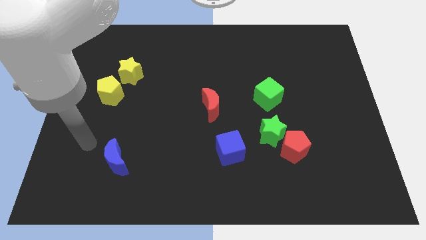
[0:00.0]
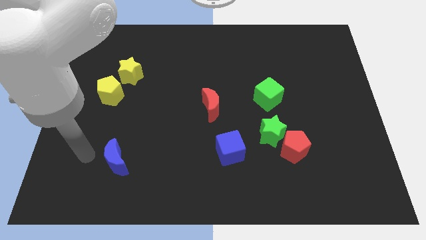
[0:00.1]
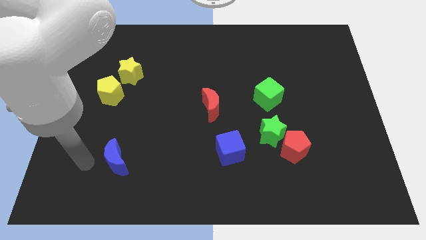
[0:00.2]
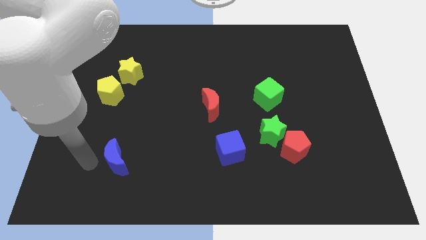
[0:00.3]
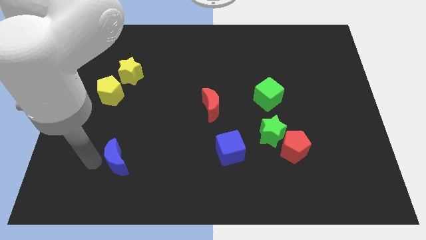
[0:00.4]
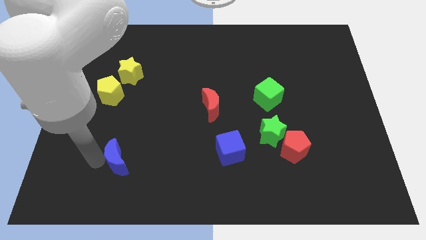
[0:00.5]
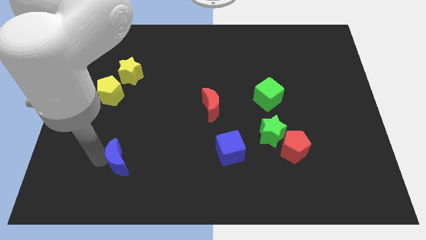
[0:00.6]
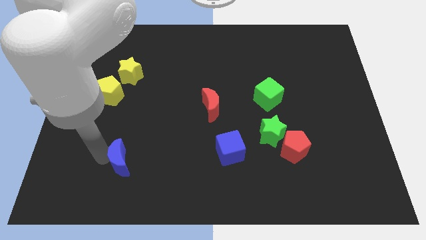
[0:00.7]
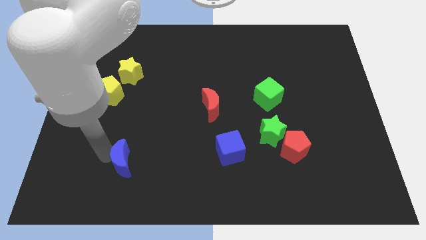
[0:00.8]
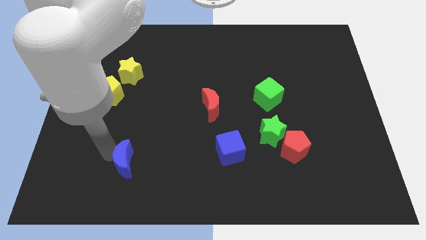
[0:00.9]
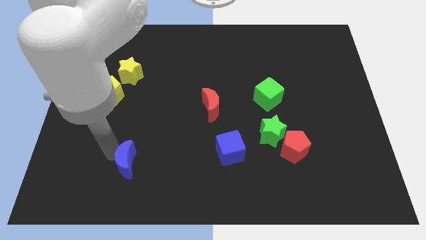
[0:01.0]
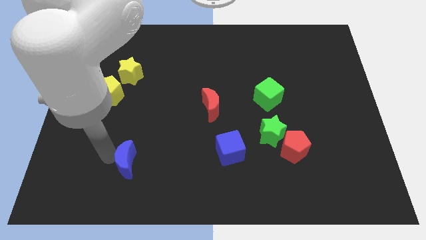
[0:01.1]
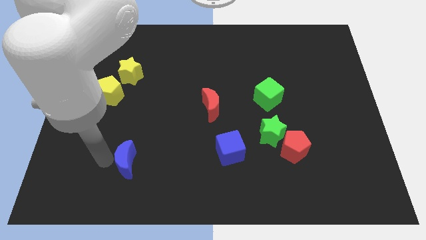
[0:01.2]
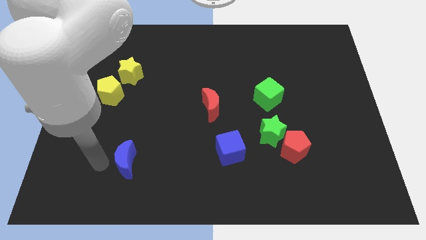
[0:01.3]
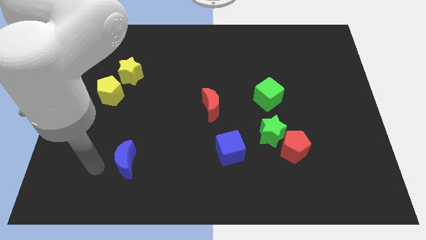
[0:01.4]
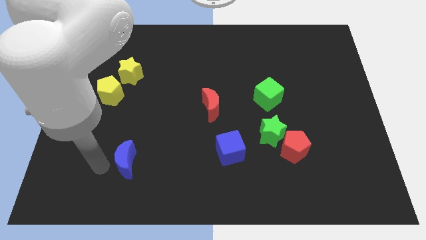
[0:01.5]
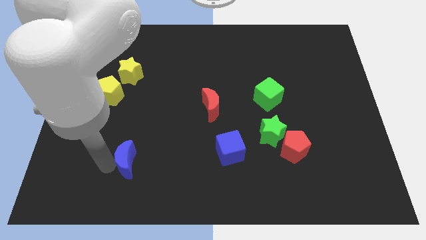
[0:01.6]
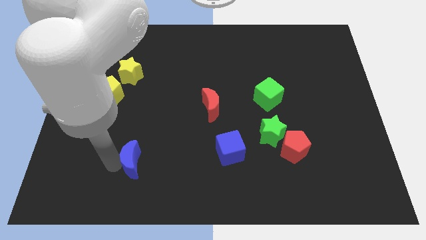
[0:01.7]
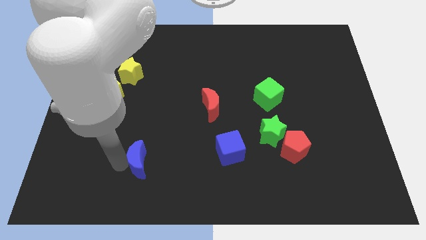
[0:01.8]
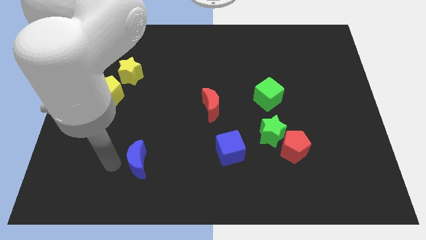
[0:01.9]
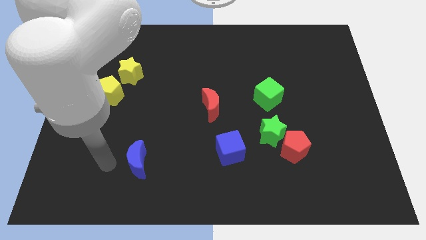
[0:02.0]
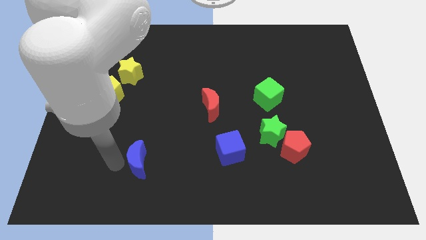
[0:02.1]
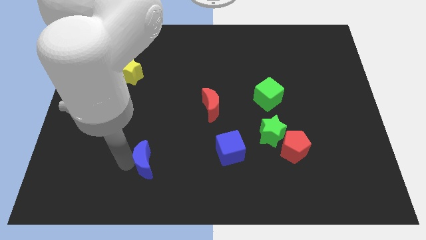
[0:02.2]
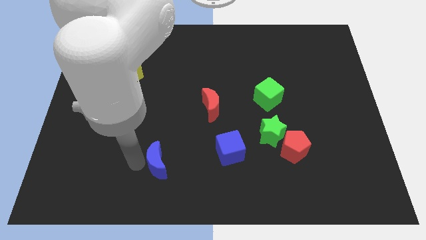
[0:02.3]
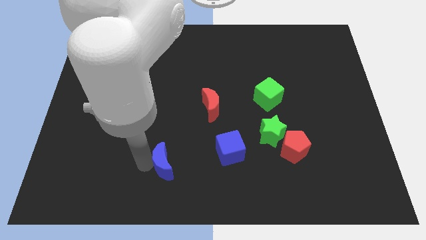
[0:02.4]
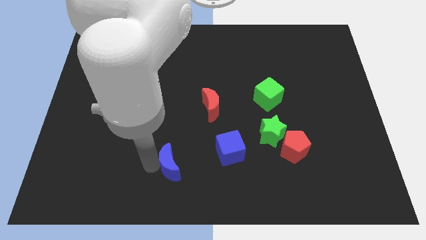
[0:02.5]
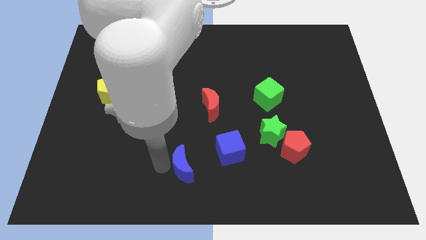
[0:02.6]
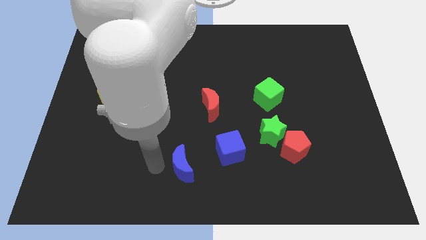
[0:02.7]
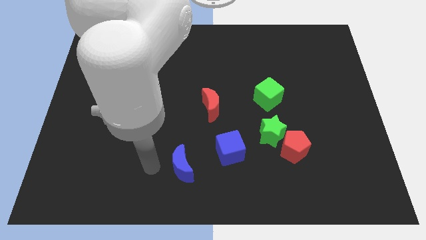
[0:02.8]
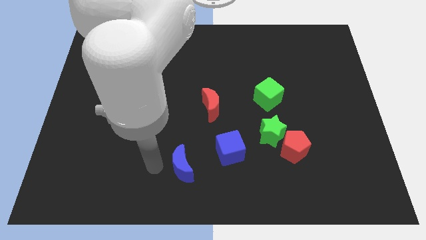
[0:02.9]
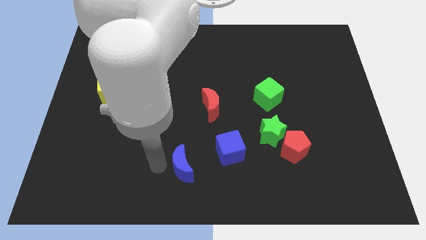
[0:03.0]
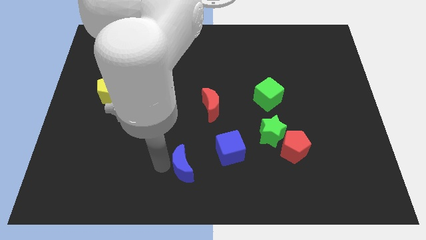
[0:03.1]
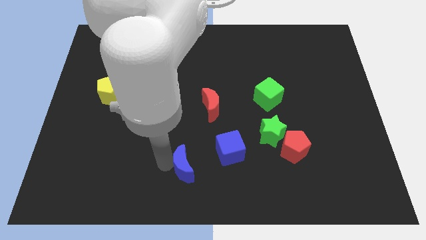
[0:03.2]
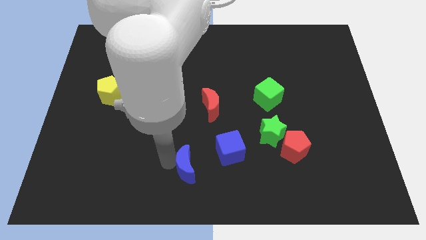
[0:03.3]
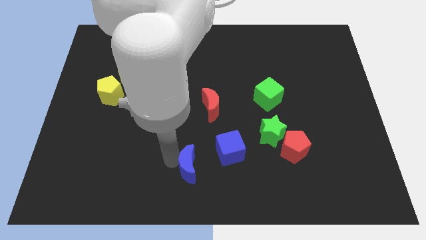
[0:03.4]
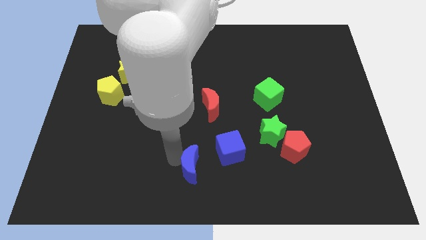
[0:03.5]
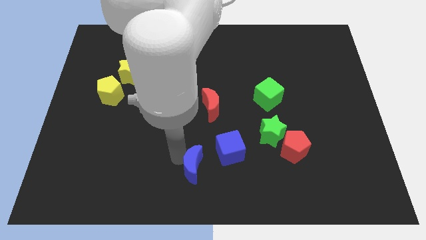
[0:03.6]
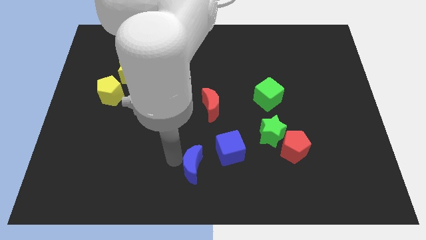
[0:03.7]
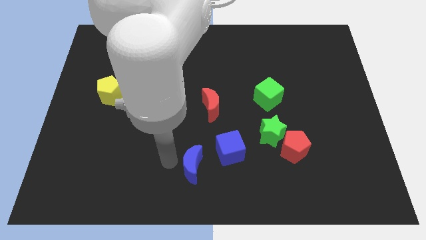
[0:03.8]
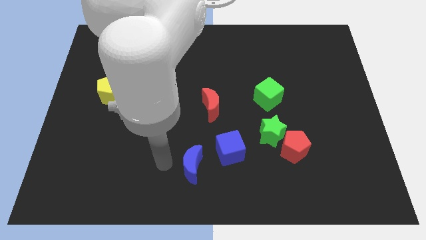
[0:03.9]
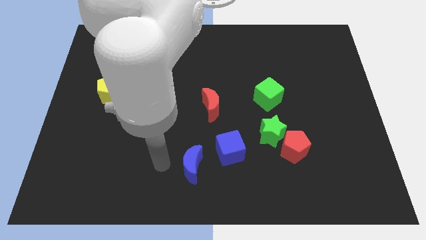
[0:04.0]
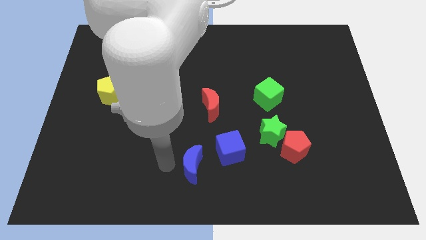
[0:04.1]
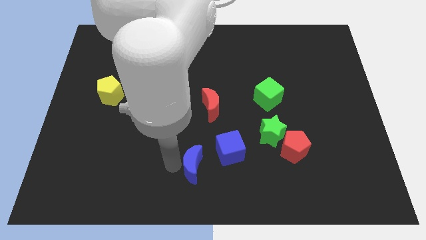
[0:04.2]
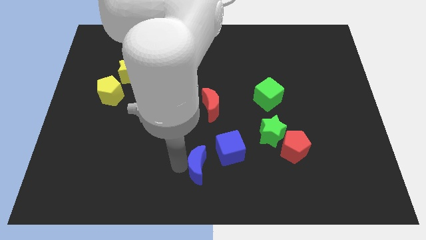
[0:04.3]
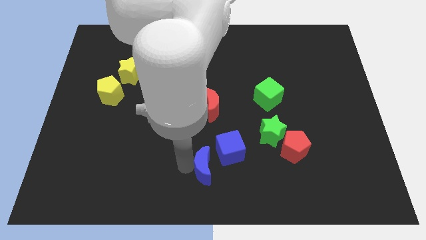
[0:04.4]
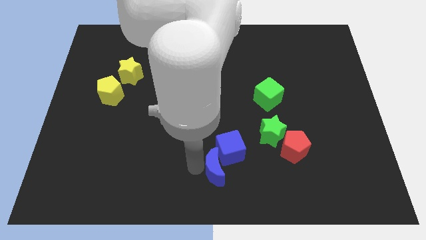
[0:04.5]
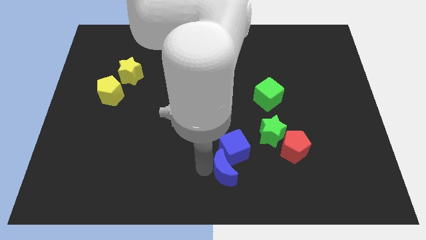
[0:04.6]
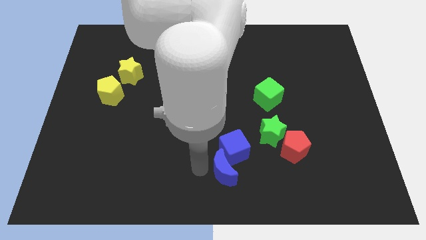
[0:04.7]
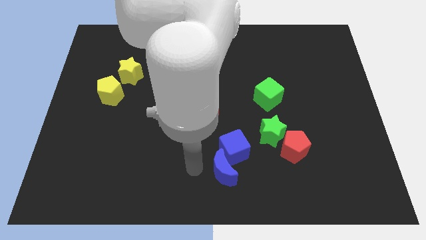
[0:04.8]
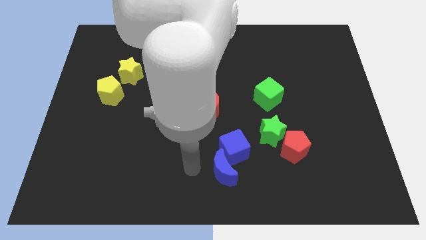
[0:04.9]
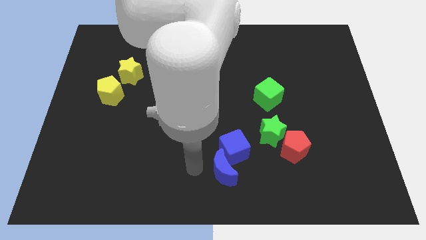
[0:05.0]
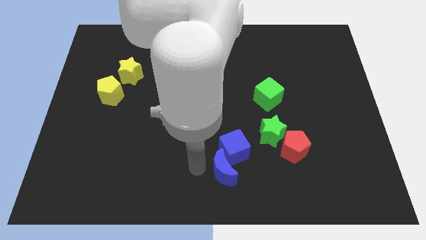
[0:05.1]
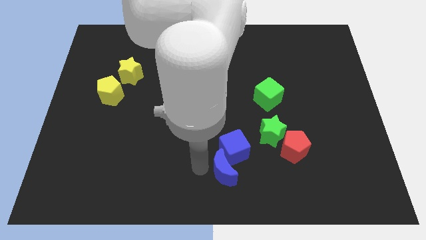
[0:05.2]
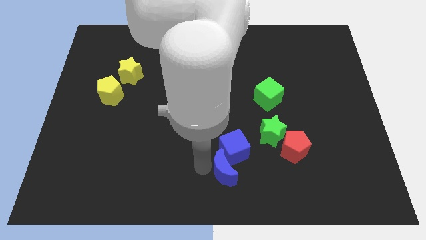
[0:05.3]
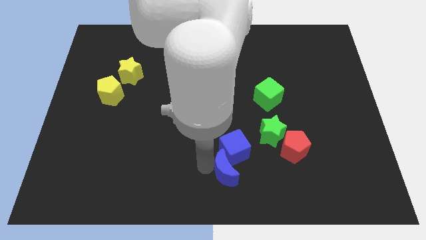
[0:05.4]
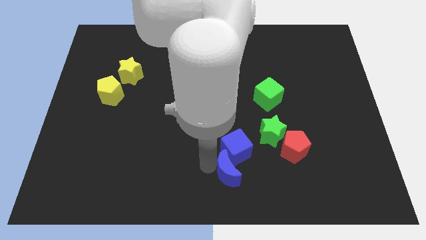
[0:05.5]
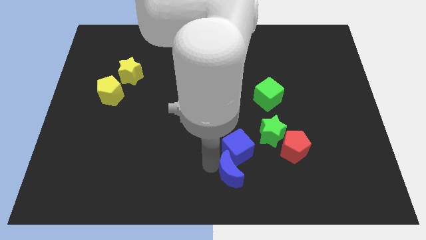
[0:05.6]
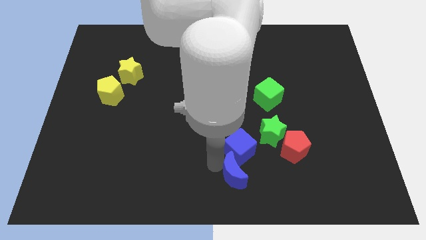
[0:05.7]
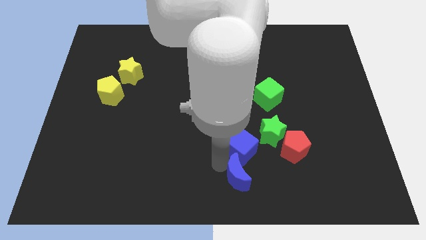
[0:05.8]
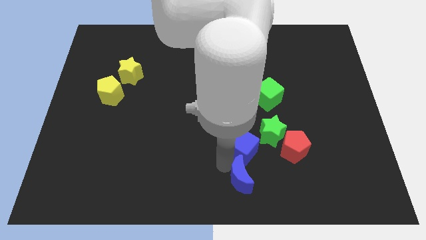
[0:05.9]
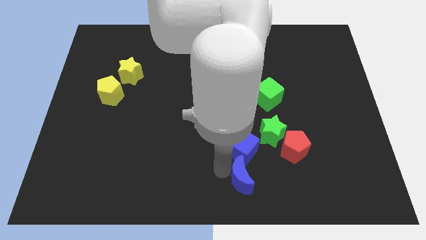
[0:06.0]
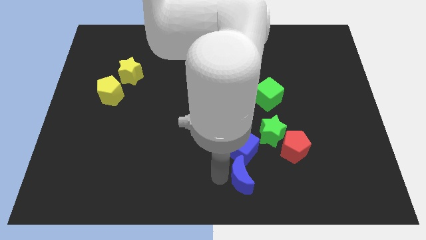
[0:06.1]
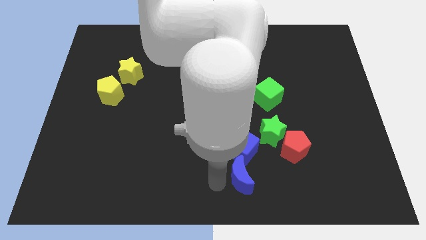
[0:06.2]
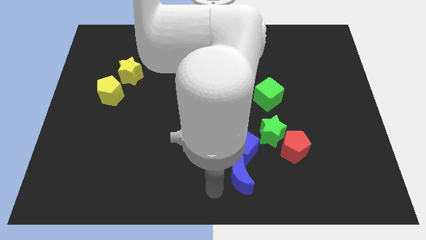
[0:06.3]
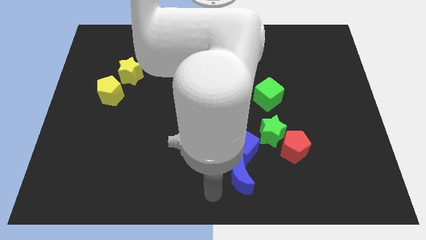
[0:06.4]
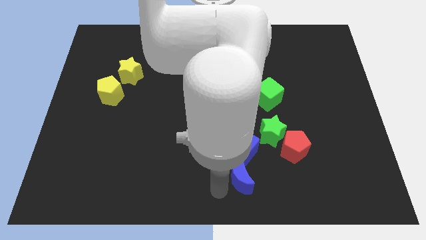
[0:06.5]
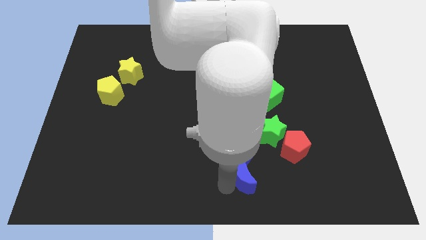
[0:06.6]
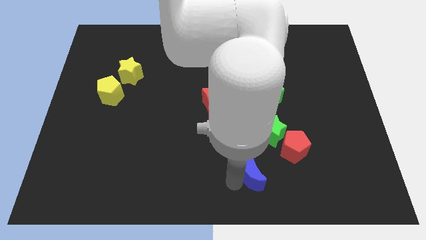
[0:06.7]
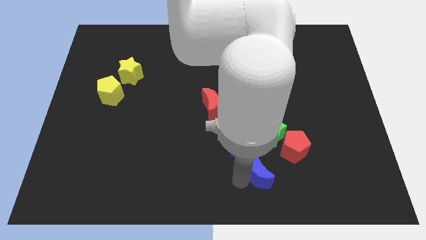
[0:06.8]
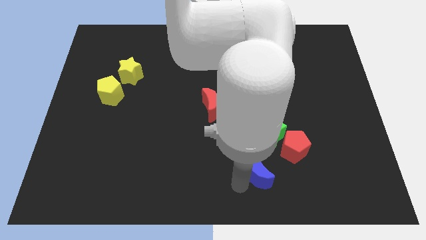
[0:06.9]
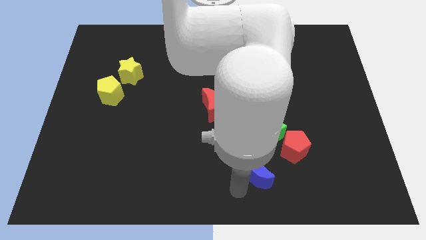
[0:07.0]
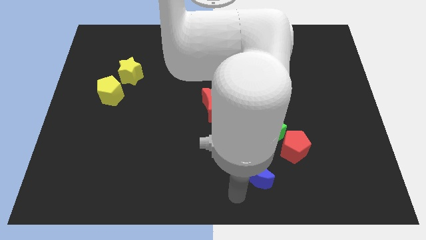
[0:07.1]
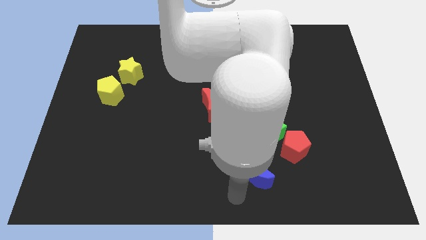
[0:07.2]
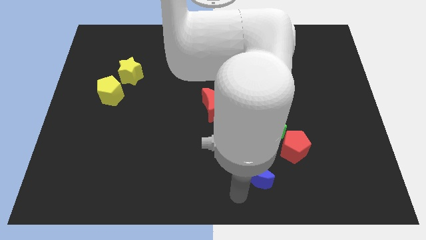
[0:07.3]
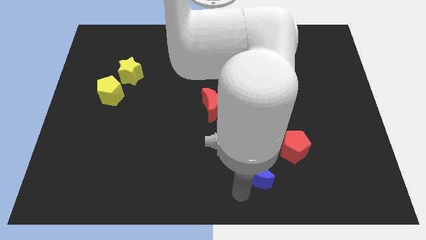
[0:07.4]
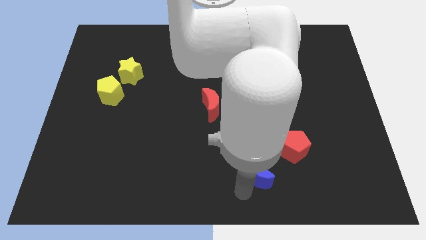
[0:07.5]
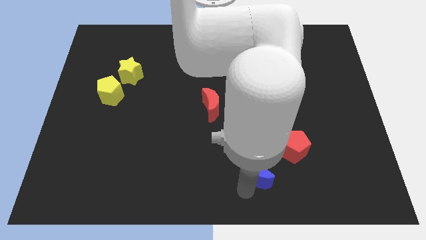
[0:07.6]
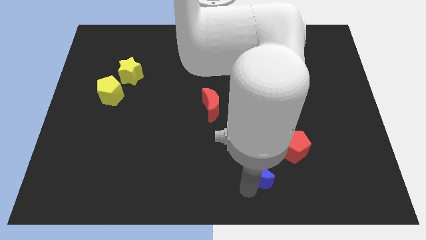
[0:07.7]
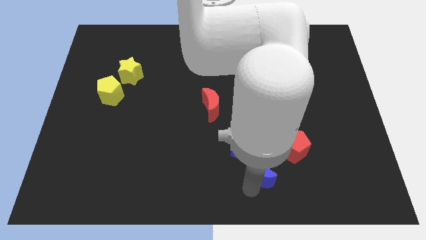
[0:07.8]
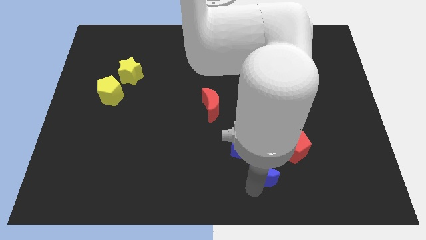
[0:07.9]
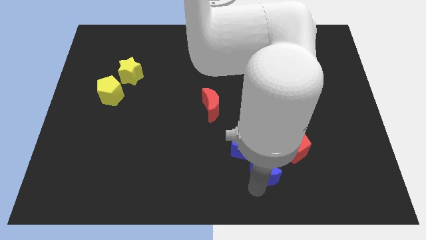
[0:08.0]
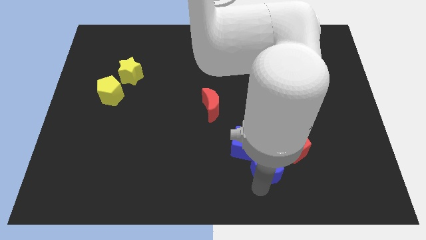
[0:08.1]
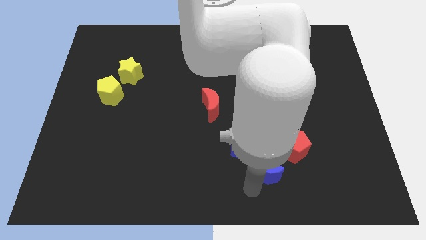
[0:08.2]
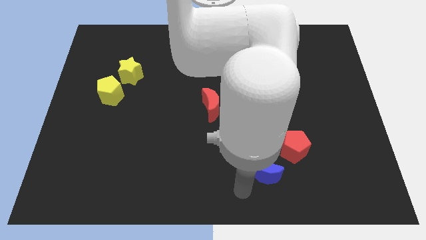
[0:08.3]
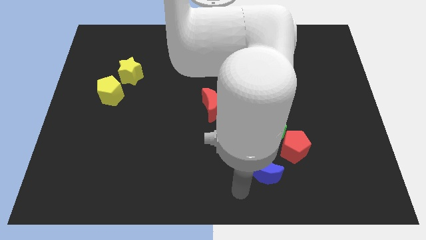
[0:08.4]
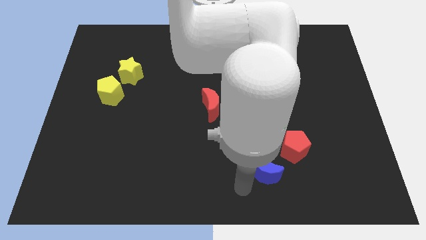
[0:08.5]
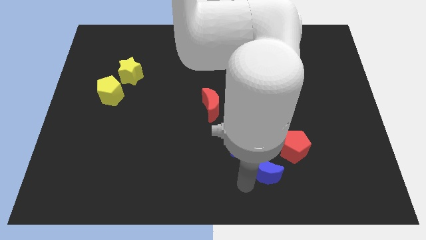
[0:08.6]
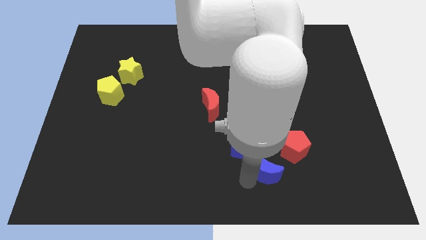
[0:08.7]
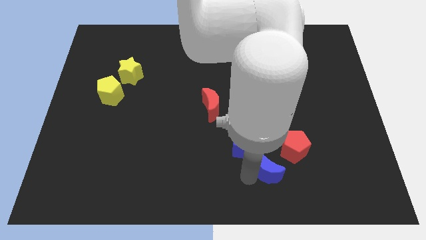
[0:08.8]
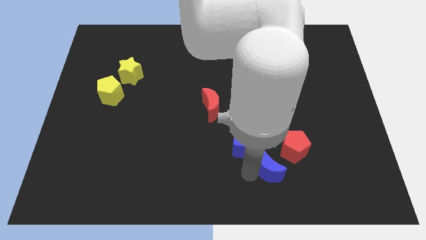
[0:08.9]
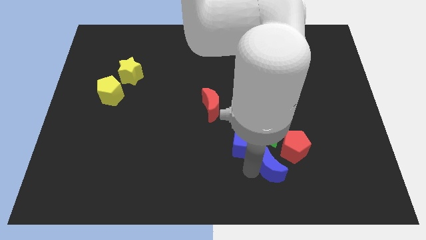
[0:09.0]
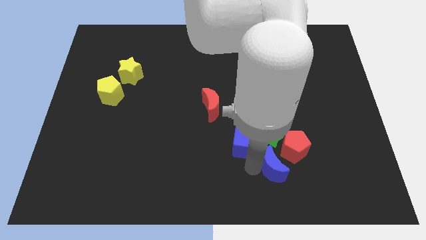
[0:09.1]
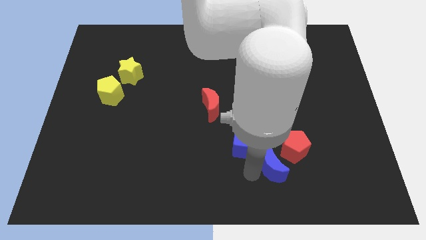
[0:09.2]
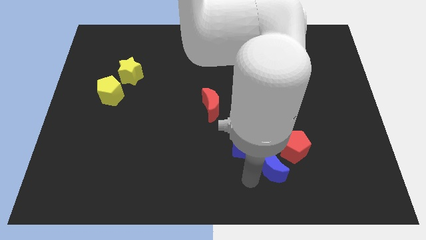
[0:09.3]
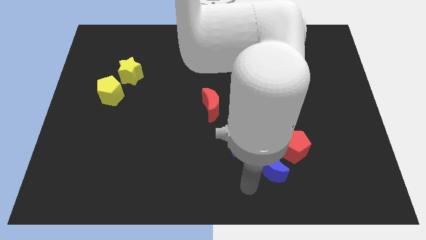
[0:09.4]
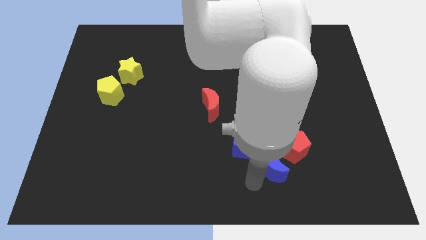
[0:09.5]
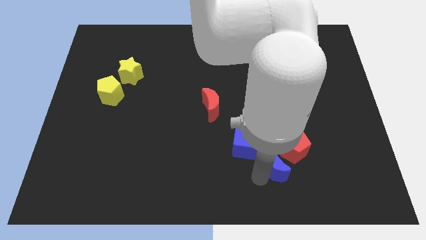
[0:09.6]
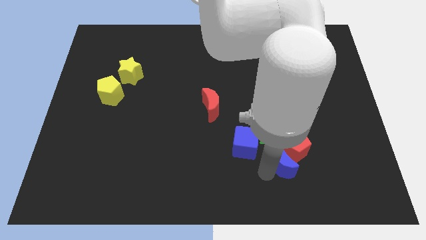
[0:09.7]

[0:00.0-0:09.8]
push the blue moon to the red pentagon
